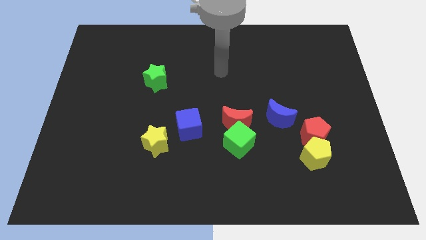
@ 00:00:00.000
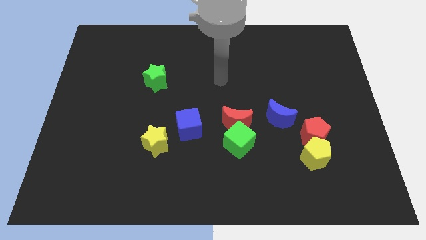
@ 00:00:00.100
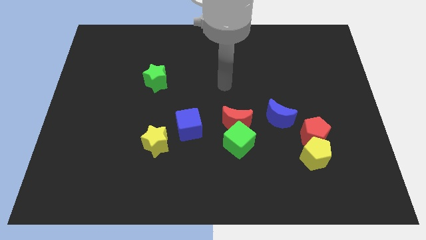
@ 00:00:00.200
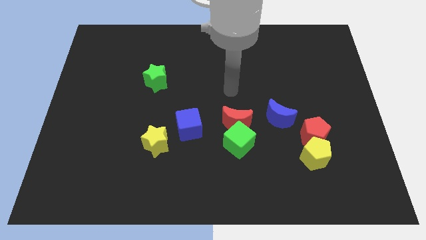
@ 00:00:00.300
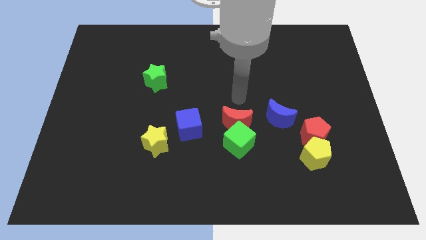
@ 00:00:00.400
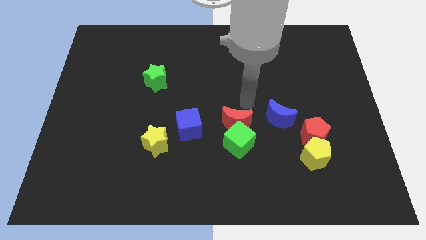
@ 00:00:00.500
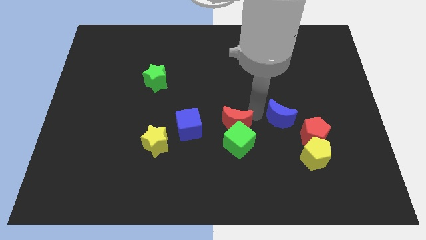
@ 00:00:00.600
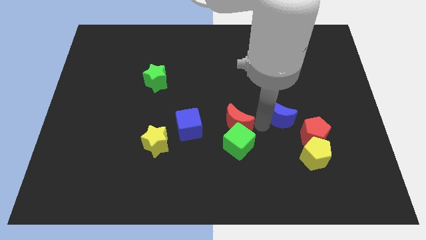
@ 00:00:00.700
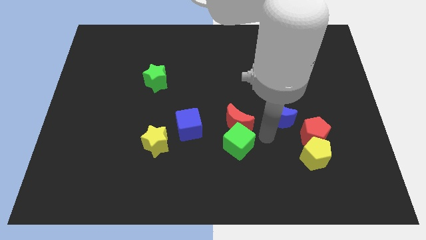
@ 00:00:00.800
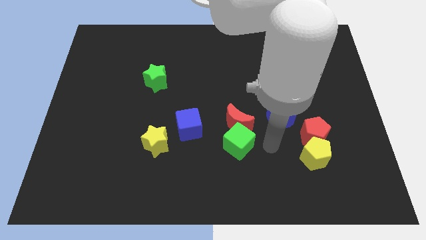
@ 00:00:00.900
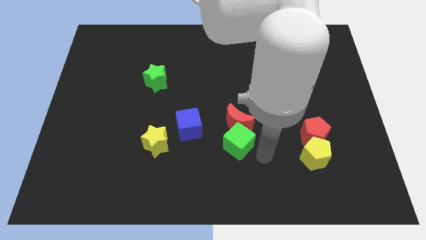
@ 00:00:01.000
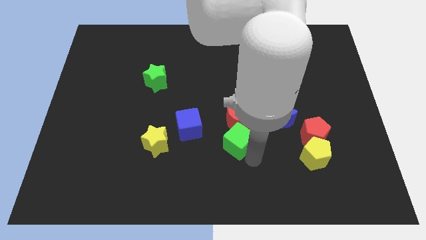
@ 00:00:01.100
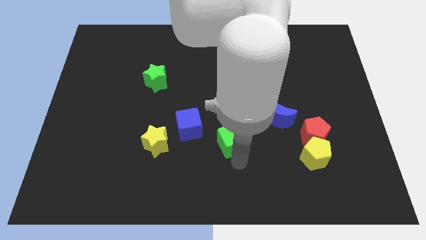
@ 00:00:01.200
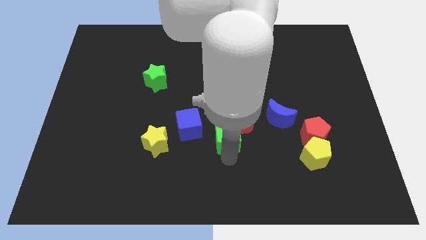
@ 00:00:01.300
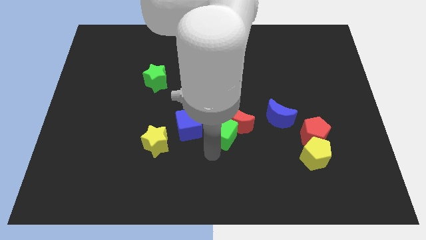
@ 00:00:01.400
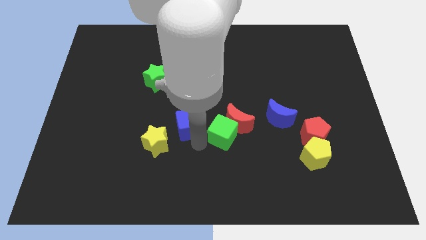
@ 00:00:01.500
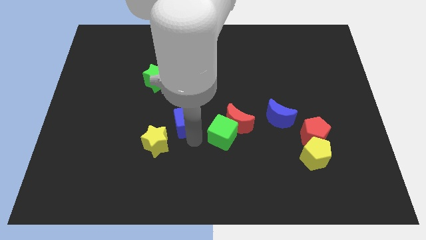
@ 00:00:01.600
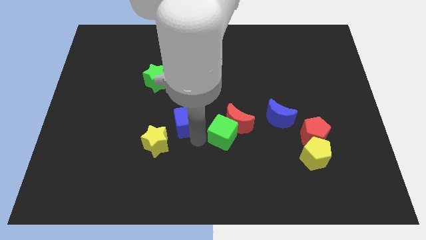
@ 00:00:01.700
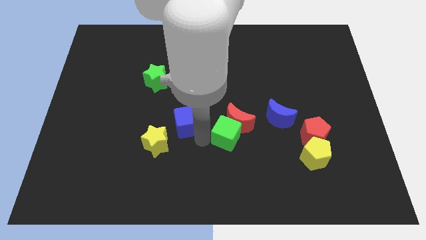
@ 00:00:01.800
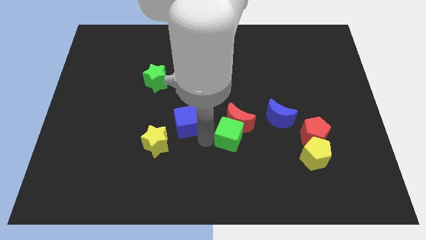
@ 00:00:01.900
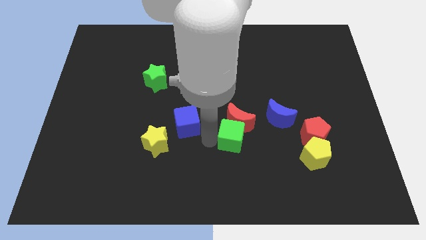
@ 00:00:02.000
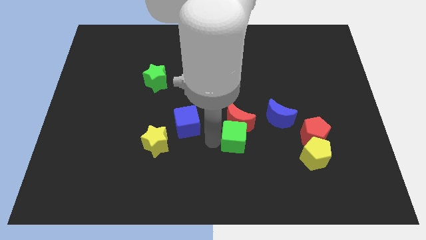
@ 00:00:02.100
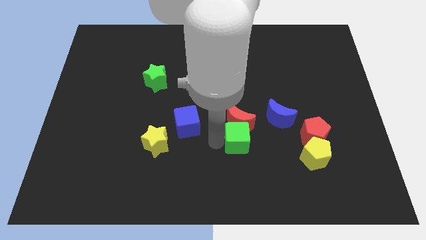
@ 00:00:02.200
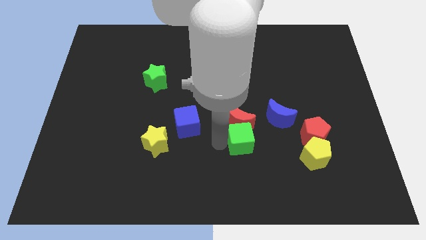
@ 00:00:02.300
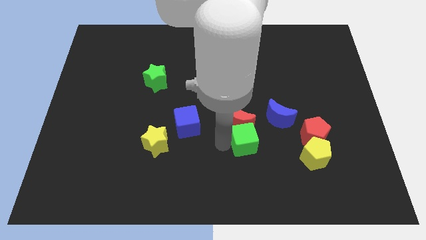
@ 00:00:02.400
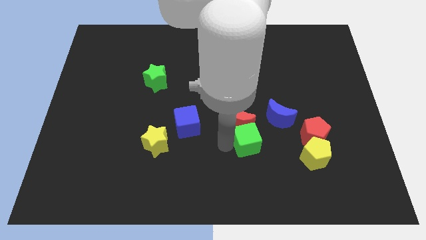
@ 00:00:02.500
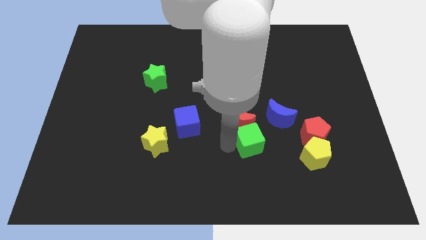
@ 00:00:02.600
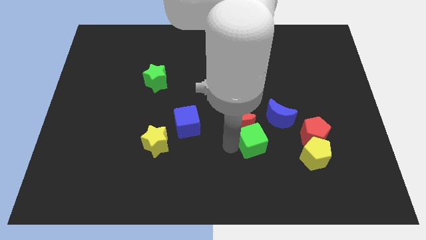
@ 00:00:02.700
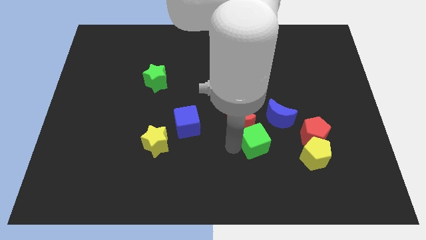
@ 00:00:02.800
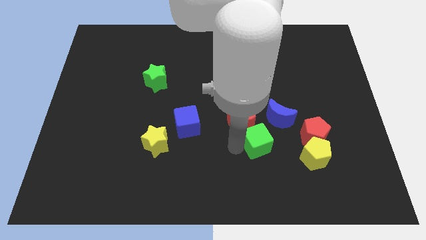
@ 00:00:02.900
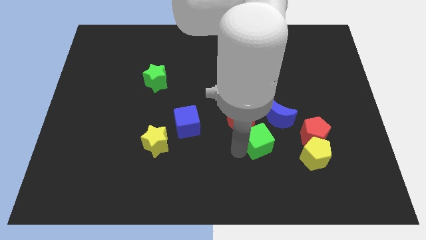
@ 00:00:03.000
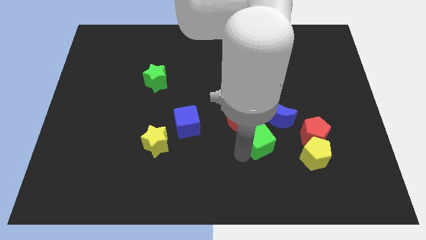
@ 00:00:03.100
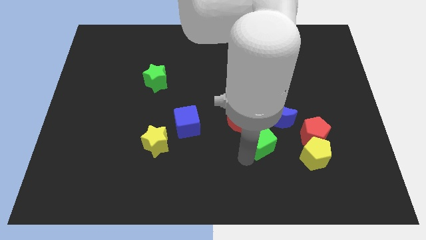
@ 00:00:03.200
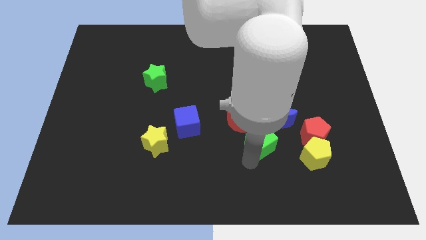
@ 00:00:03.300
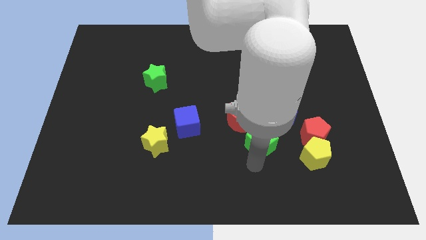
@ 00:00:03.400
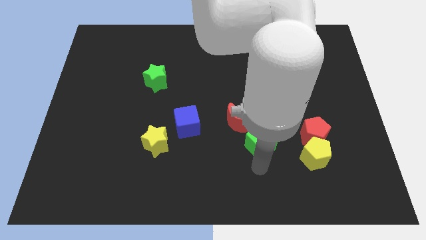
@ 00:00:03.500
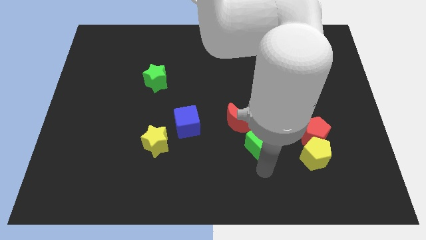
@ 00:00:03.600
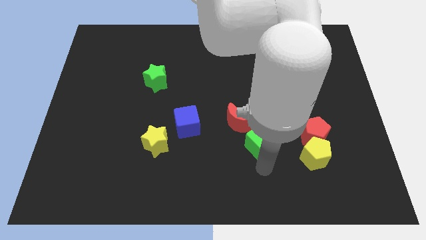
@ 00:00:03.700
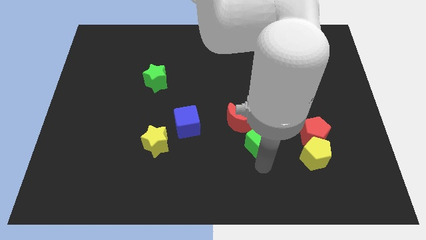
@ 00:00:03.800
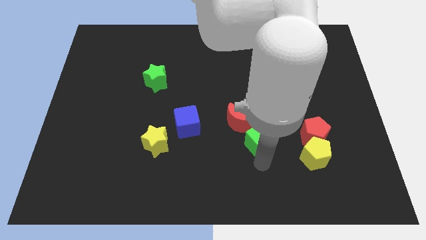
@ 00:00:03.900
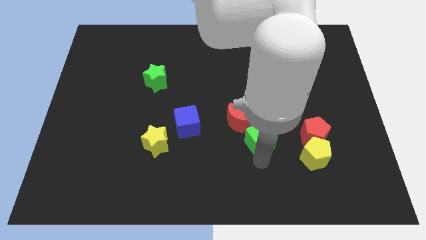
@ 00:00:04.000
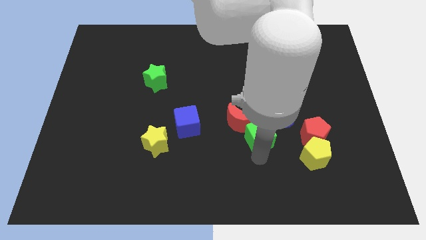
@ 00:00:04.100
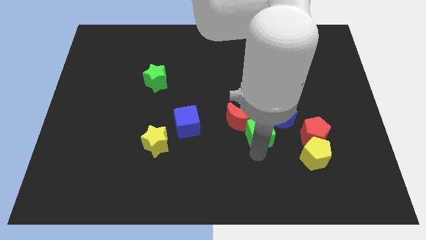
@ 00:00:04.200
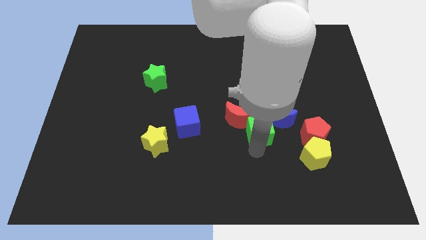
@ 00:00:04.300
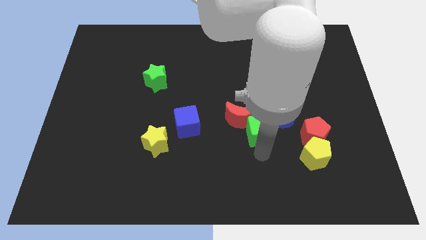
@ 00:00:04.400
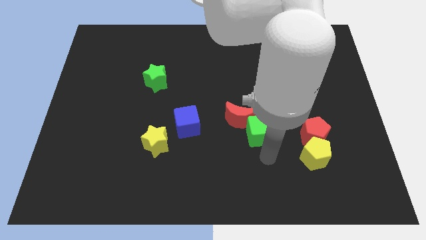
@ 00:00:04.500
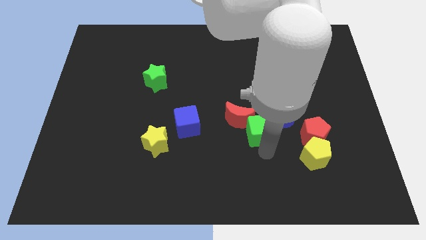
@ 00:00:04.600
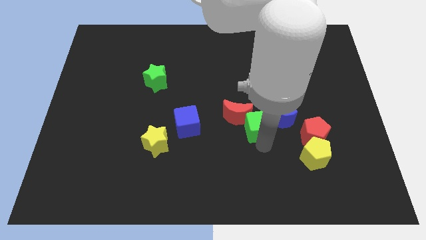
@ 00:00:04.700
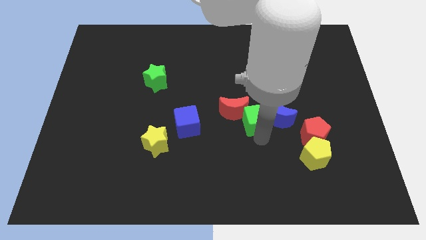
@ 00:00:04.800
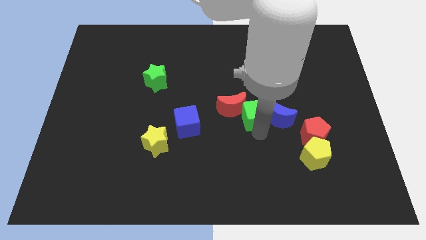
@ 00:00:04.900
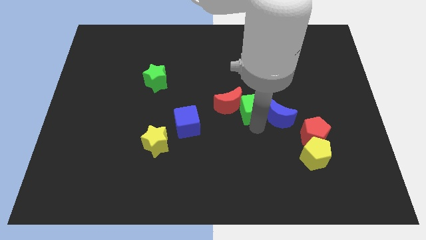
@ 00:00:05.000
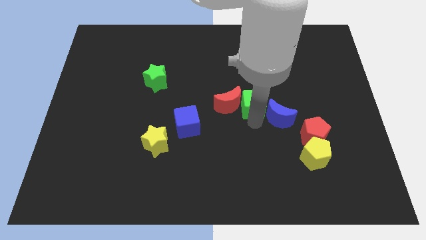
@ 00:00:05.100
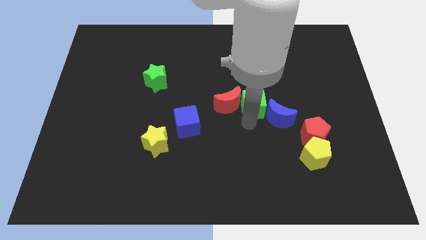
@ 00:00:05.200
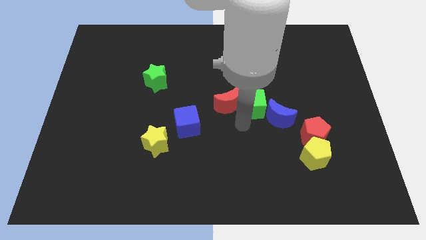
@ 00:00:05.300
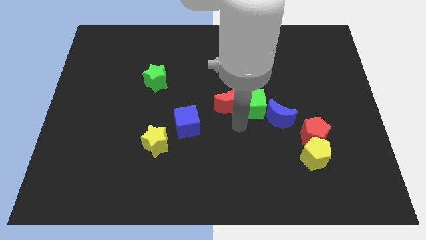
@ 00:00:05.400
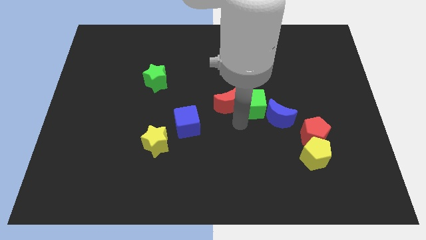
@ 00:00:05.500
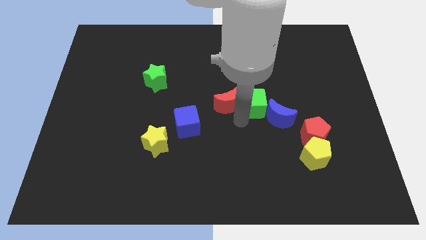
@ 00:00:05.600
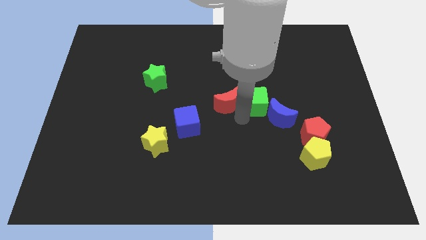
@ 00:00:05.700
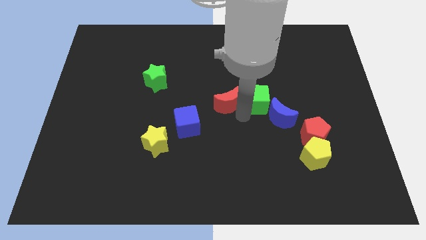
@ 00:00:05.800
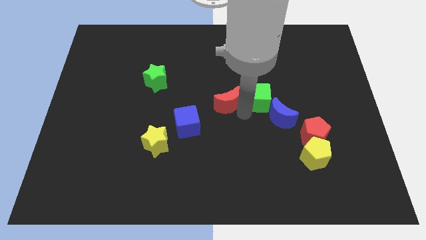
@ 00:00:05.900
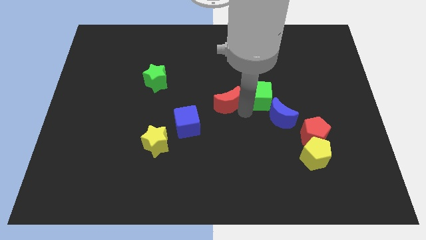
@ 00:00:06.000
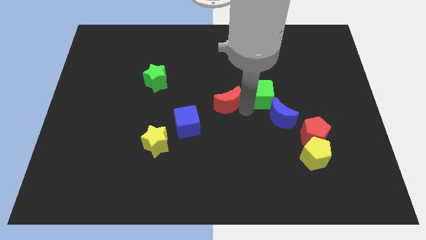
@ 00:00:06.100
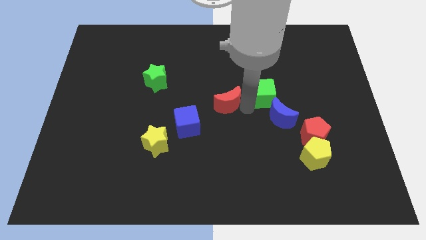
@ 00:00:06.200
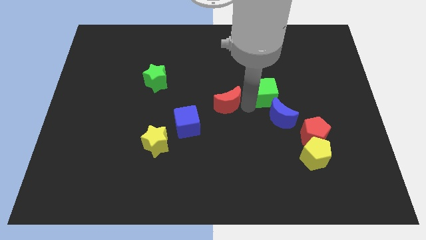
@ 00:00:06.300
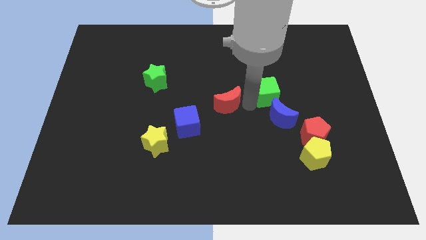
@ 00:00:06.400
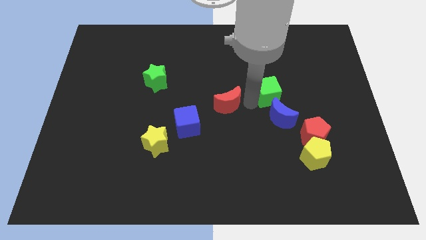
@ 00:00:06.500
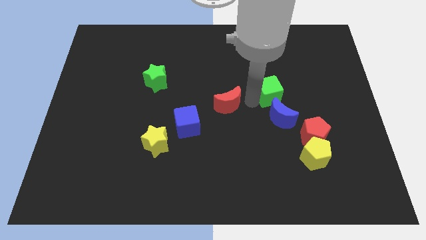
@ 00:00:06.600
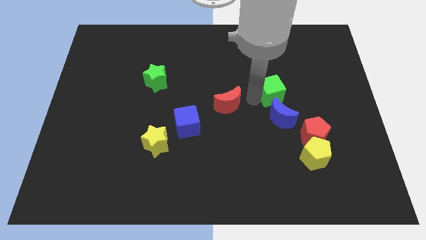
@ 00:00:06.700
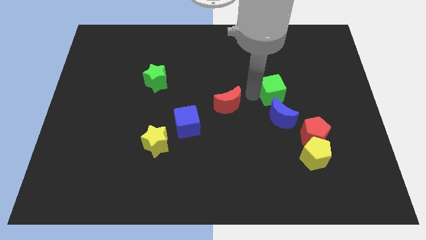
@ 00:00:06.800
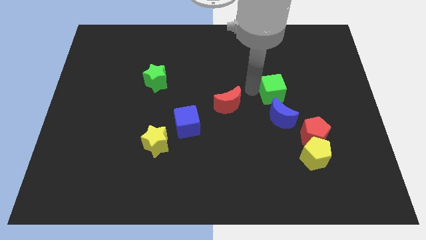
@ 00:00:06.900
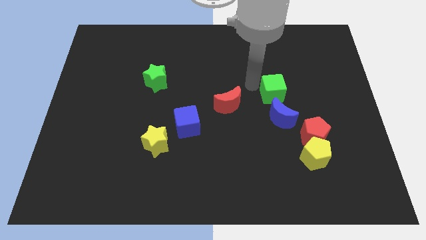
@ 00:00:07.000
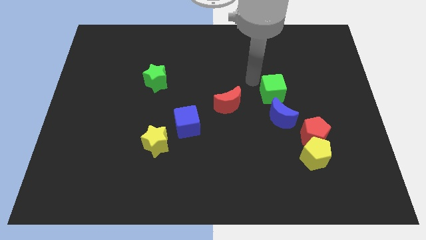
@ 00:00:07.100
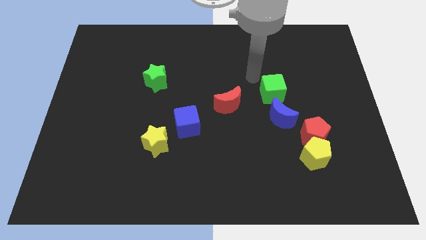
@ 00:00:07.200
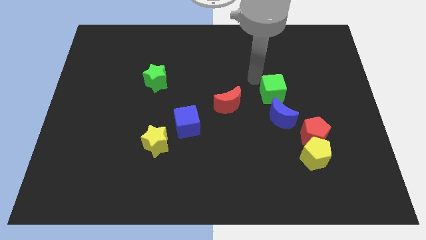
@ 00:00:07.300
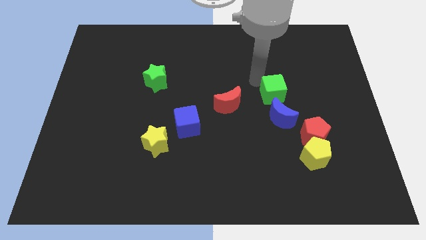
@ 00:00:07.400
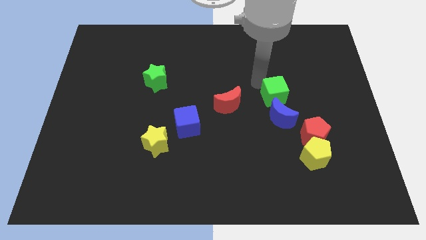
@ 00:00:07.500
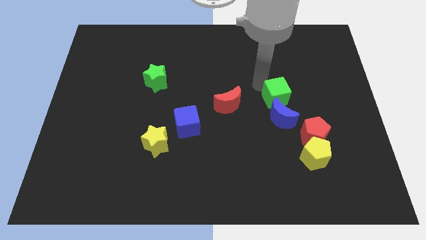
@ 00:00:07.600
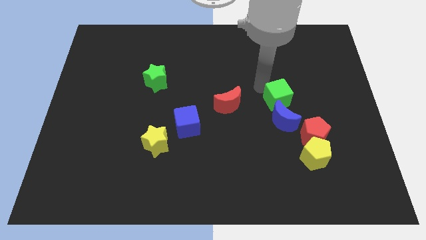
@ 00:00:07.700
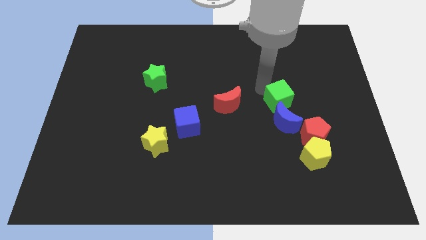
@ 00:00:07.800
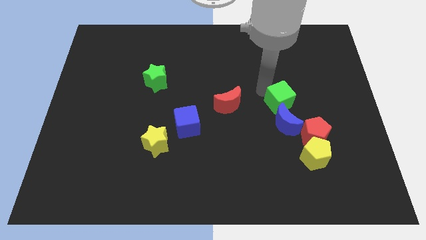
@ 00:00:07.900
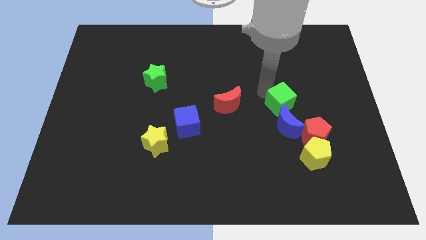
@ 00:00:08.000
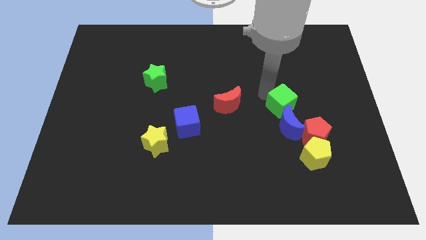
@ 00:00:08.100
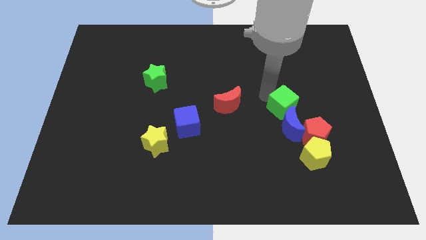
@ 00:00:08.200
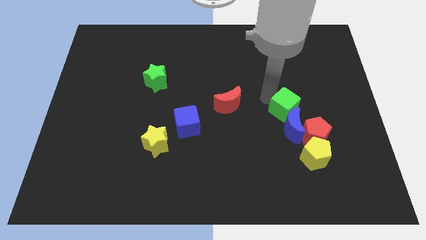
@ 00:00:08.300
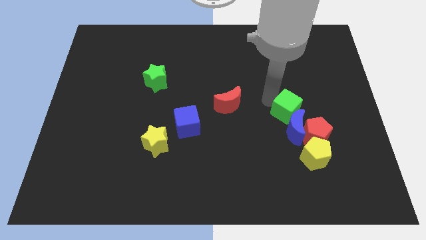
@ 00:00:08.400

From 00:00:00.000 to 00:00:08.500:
push the green cube above the yellow pentagon
